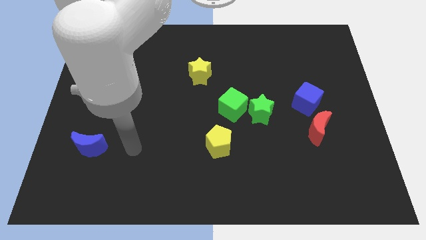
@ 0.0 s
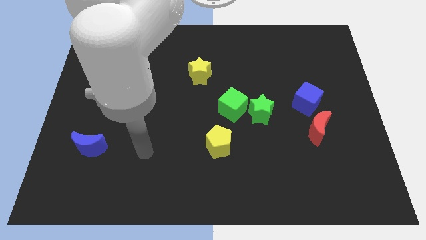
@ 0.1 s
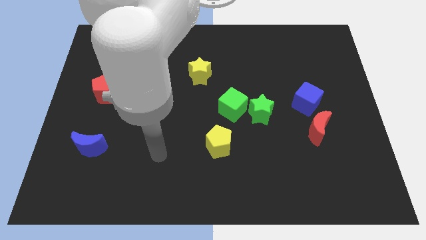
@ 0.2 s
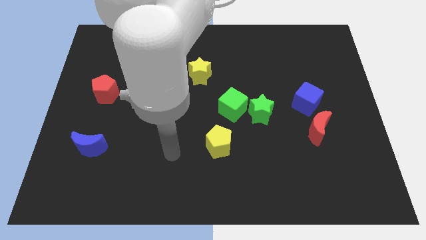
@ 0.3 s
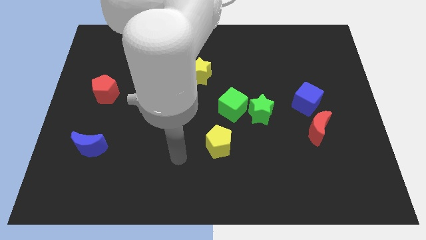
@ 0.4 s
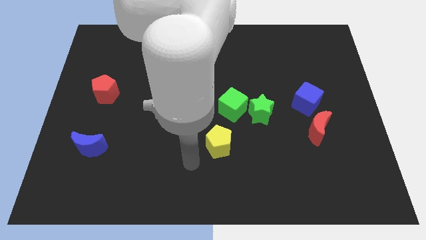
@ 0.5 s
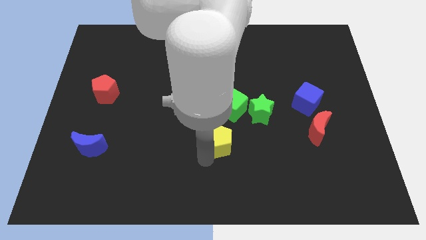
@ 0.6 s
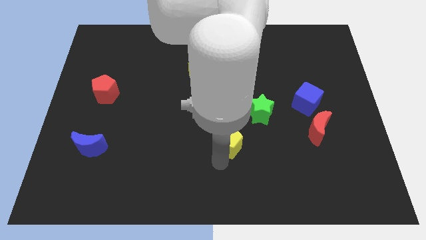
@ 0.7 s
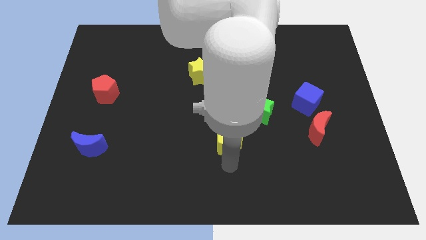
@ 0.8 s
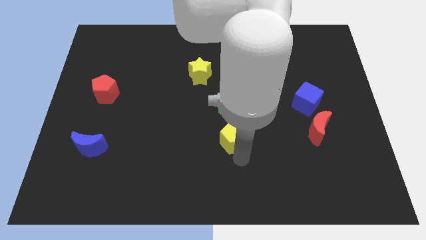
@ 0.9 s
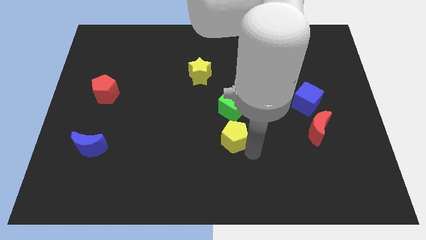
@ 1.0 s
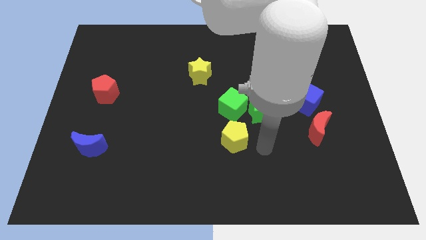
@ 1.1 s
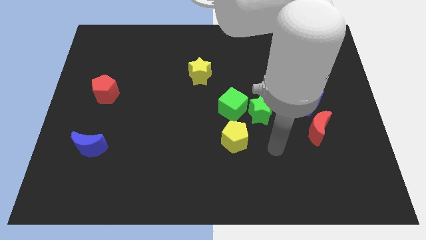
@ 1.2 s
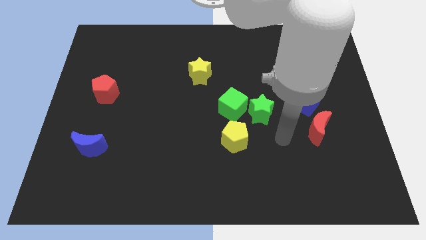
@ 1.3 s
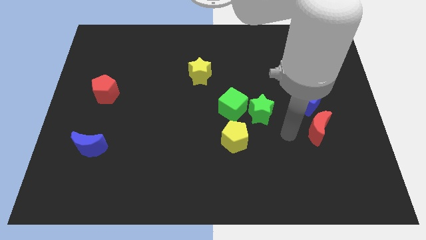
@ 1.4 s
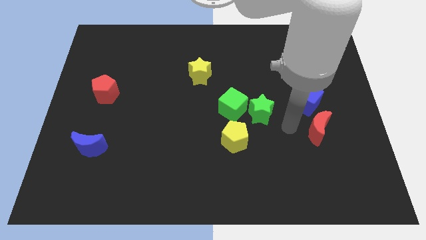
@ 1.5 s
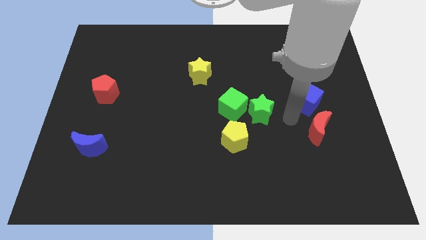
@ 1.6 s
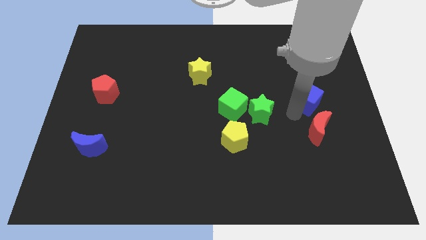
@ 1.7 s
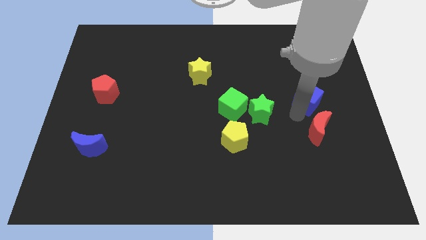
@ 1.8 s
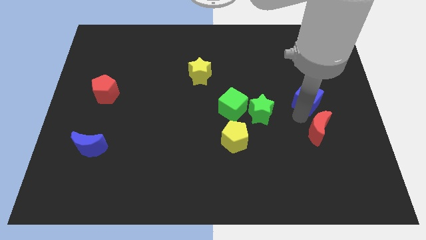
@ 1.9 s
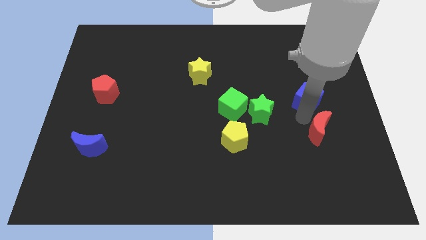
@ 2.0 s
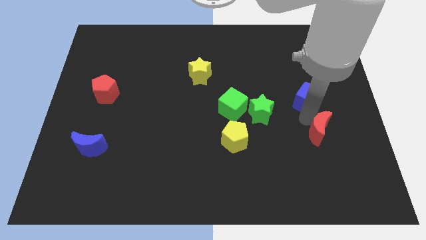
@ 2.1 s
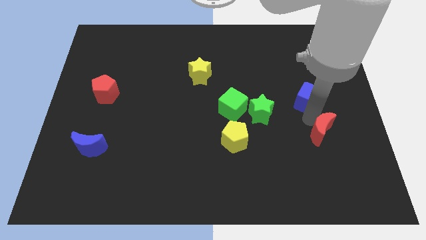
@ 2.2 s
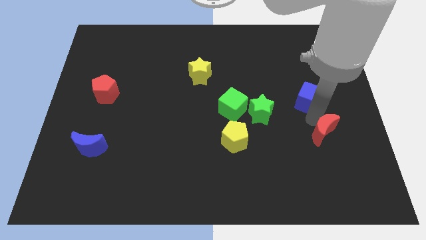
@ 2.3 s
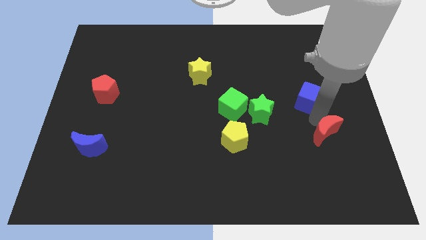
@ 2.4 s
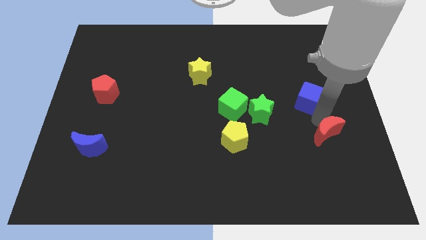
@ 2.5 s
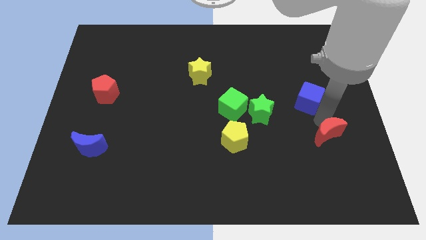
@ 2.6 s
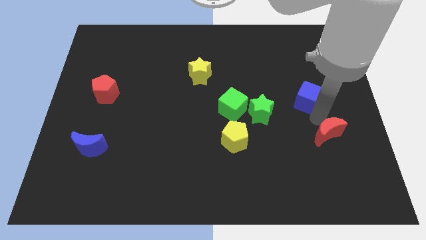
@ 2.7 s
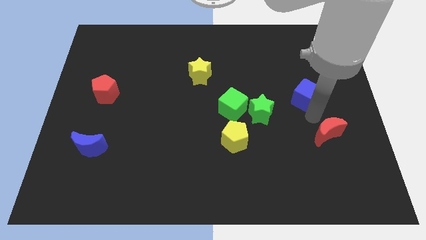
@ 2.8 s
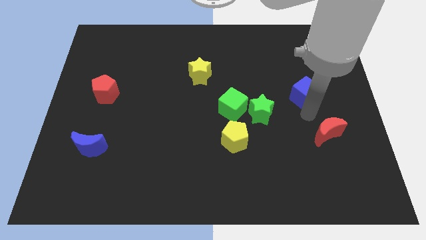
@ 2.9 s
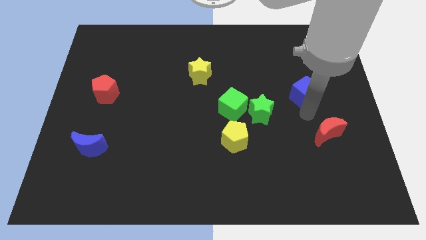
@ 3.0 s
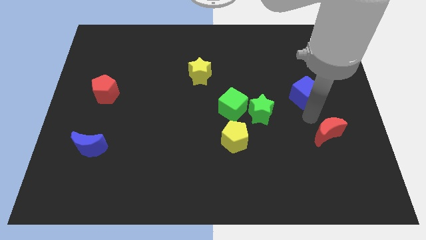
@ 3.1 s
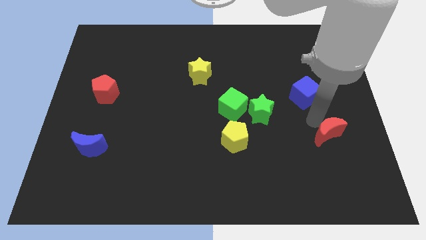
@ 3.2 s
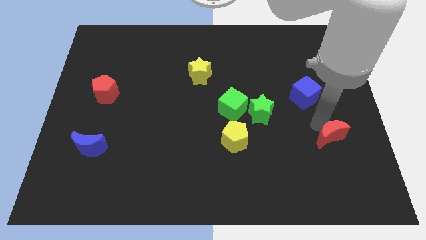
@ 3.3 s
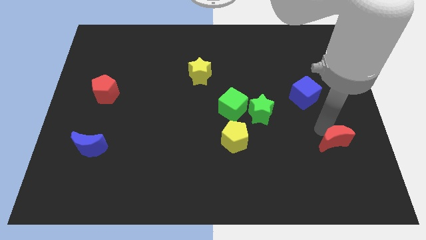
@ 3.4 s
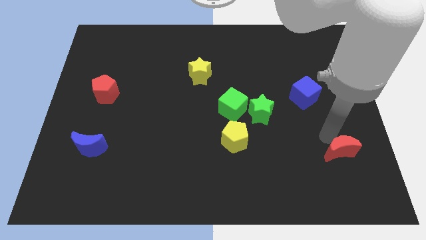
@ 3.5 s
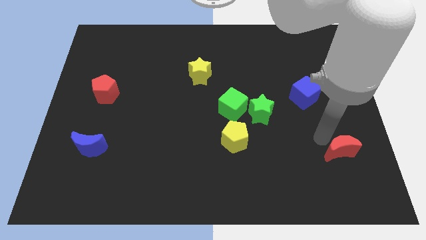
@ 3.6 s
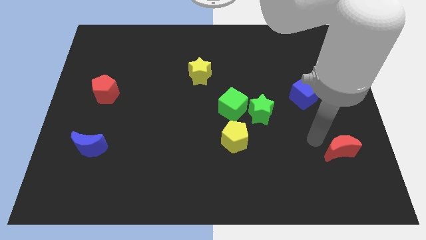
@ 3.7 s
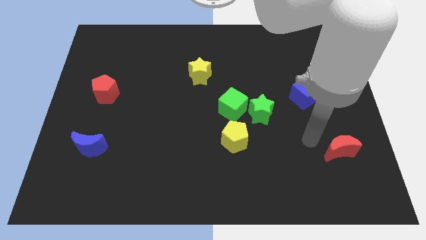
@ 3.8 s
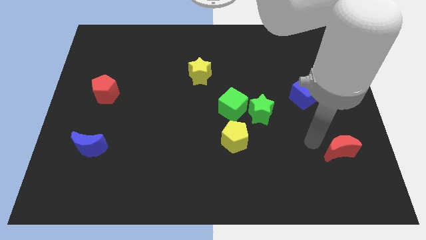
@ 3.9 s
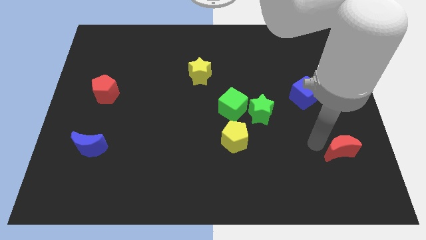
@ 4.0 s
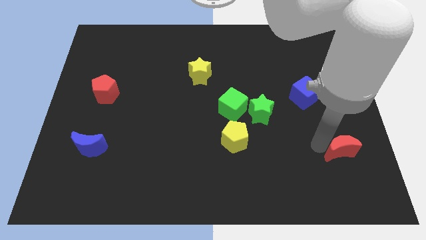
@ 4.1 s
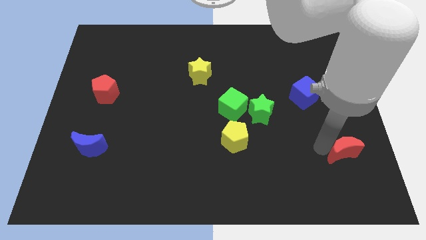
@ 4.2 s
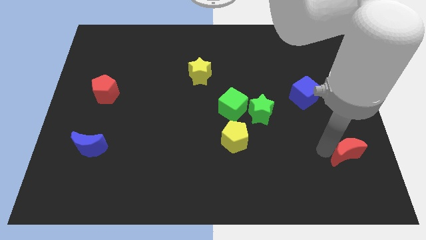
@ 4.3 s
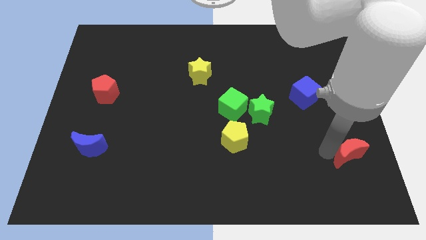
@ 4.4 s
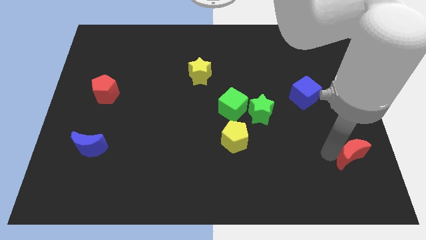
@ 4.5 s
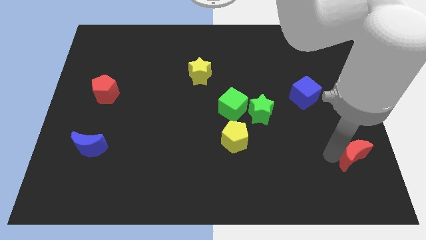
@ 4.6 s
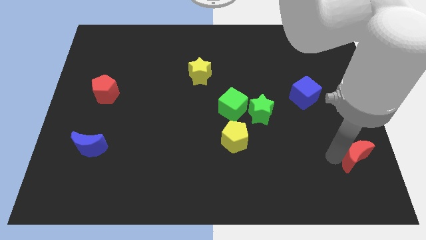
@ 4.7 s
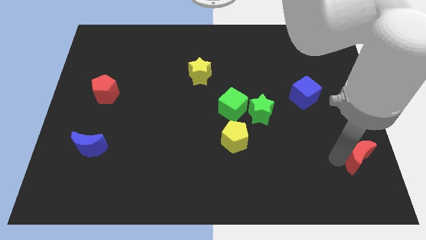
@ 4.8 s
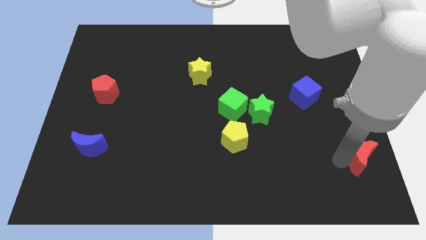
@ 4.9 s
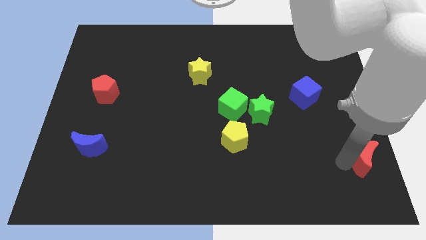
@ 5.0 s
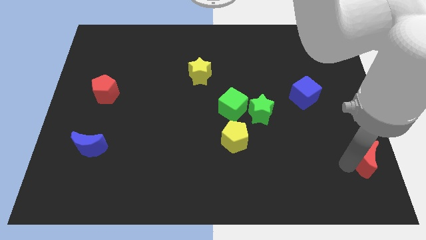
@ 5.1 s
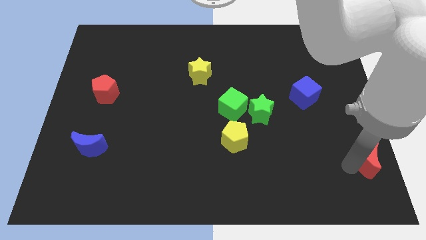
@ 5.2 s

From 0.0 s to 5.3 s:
put the red moon to the bottom right of the board

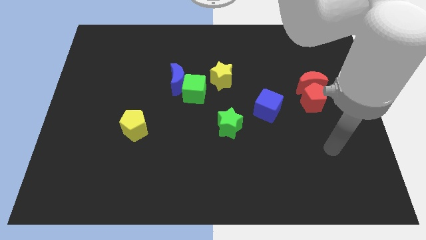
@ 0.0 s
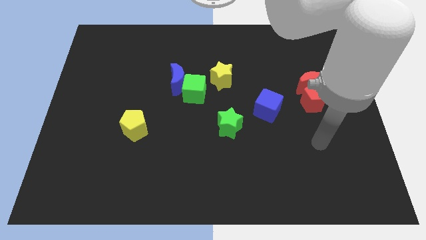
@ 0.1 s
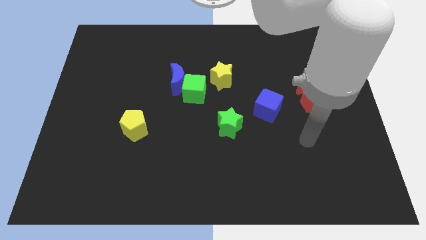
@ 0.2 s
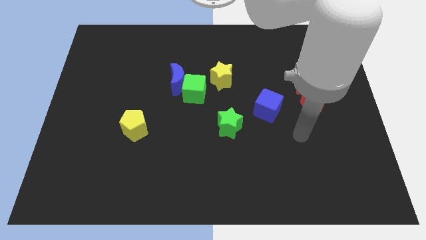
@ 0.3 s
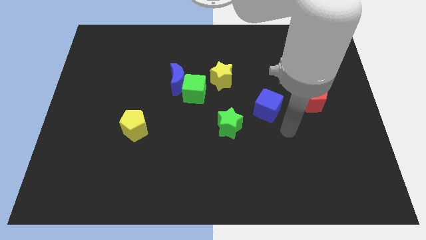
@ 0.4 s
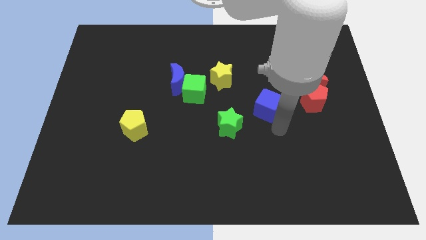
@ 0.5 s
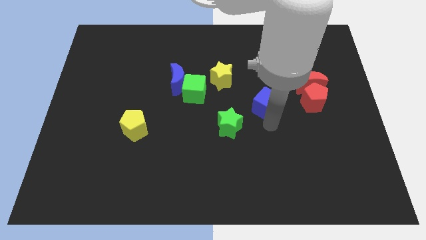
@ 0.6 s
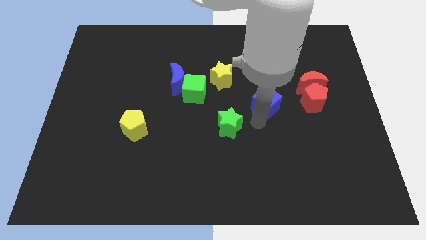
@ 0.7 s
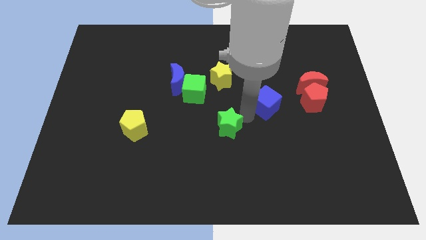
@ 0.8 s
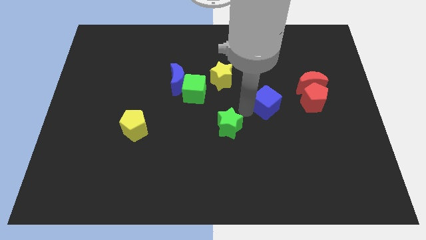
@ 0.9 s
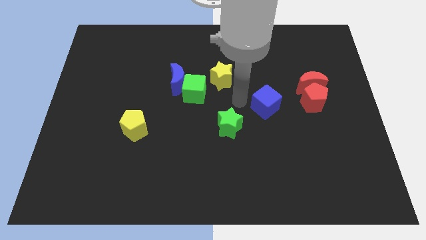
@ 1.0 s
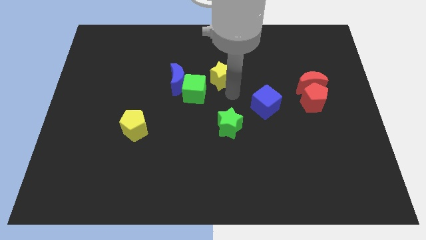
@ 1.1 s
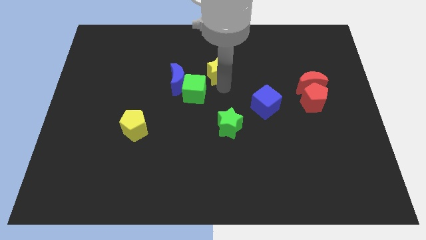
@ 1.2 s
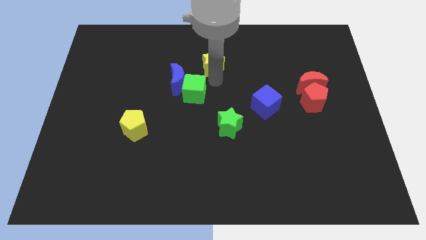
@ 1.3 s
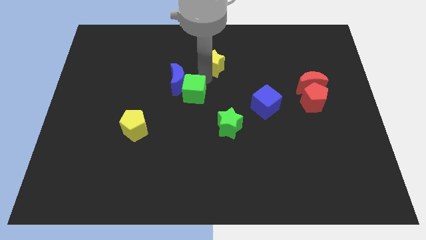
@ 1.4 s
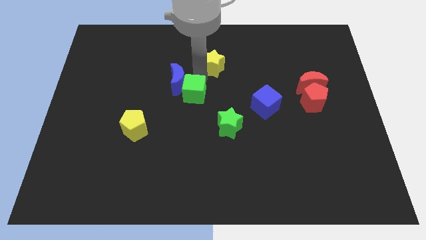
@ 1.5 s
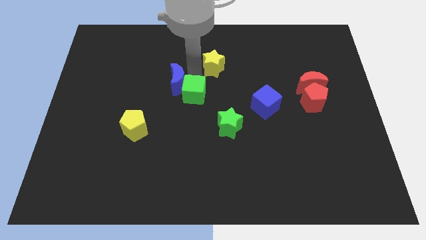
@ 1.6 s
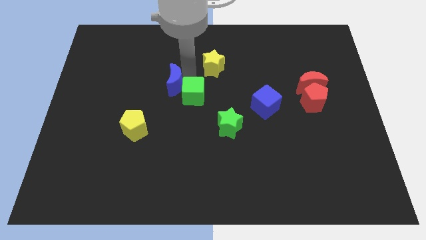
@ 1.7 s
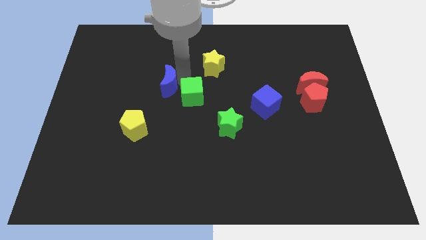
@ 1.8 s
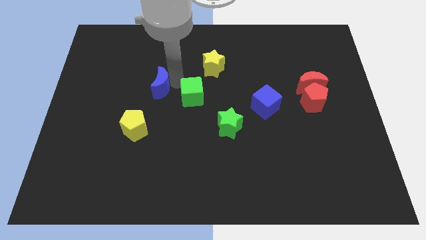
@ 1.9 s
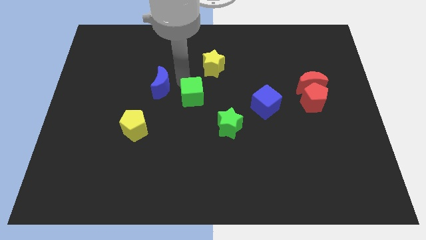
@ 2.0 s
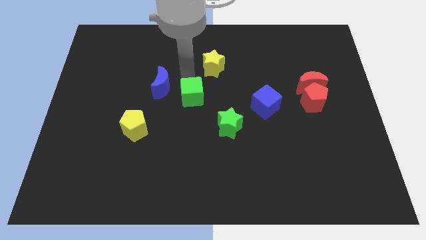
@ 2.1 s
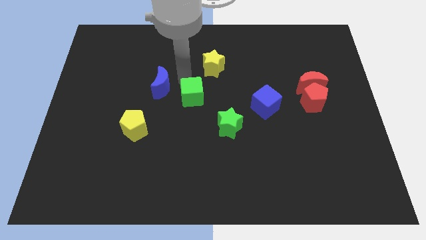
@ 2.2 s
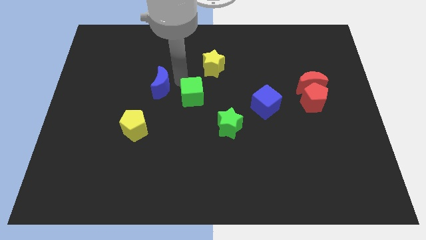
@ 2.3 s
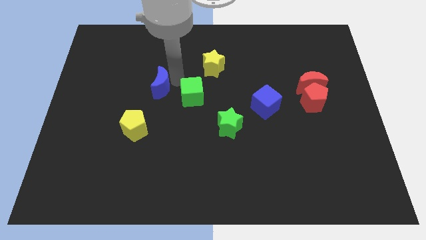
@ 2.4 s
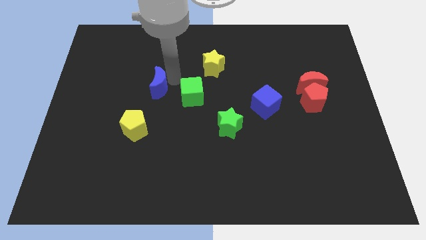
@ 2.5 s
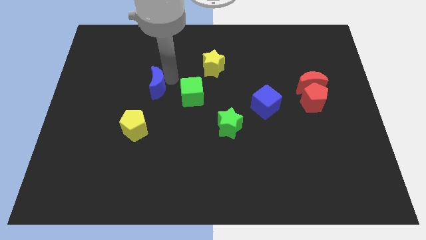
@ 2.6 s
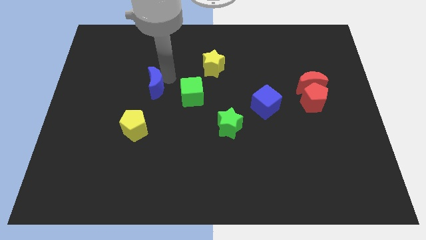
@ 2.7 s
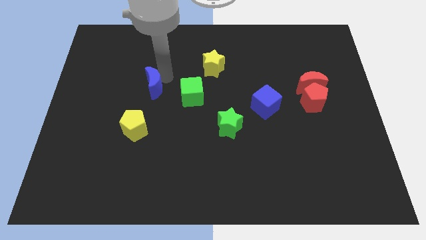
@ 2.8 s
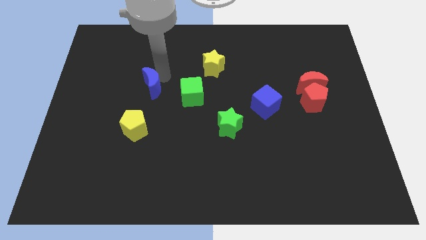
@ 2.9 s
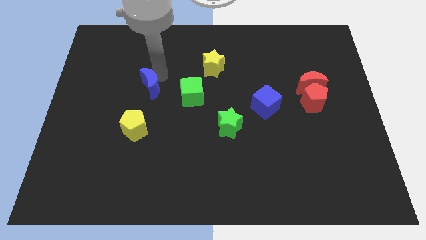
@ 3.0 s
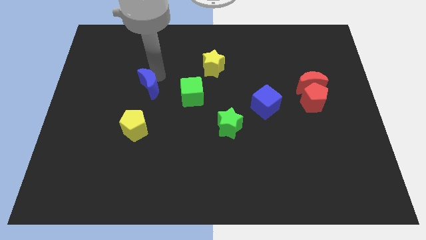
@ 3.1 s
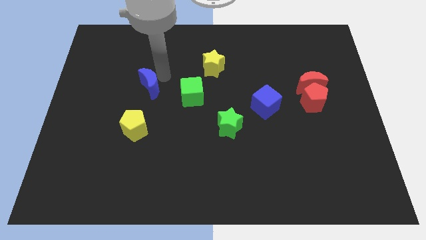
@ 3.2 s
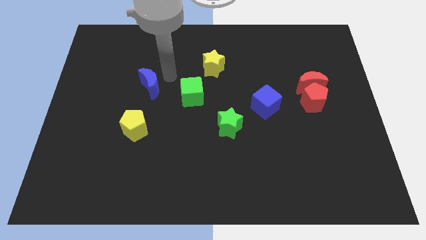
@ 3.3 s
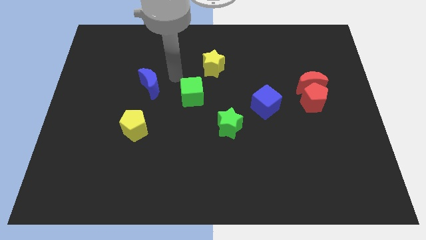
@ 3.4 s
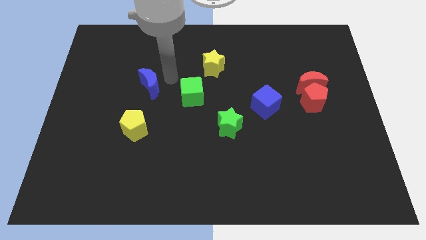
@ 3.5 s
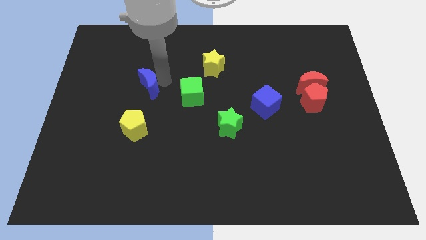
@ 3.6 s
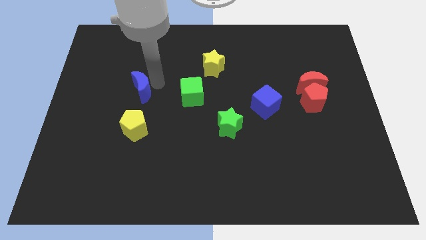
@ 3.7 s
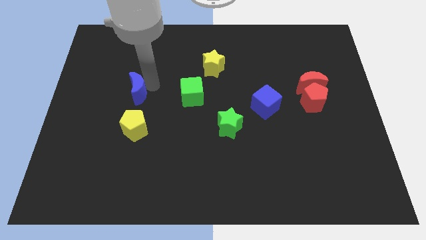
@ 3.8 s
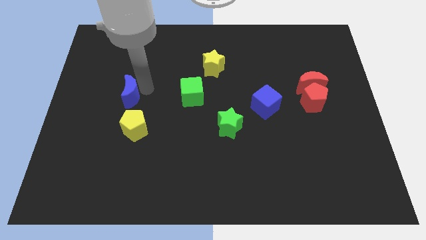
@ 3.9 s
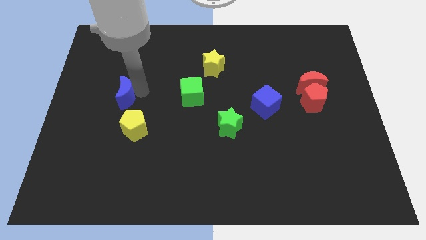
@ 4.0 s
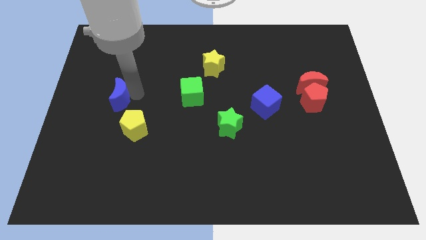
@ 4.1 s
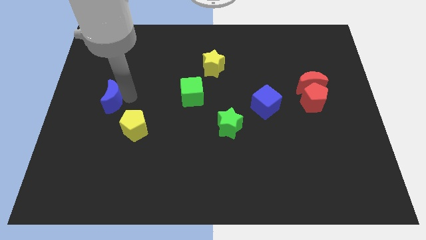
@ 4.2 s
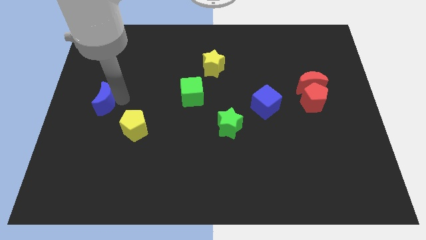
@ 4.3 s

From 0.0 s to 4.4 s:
put the blue moon to the left side of the board
